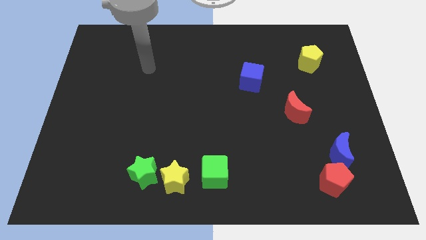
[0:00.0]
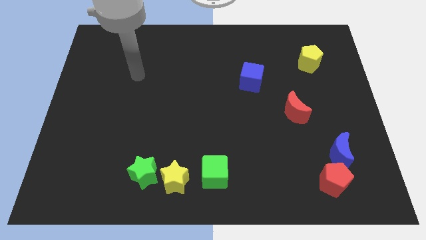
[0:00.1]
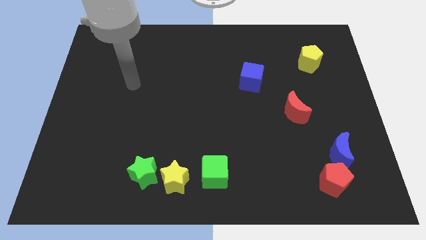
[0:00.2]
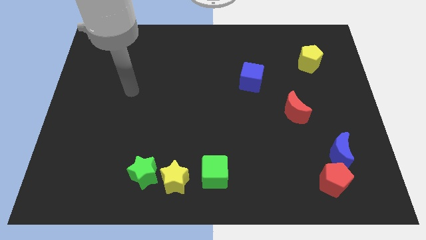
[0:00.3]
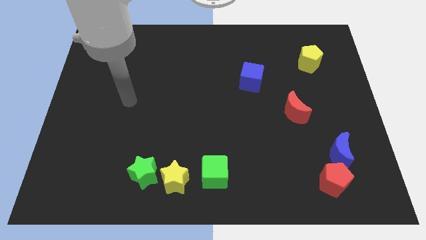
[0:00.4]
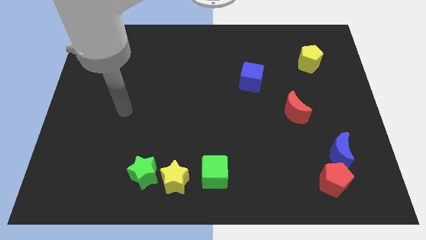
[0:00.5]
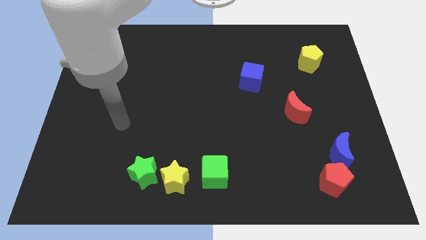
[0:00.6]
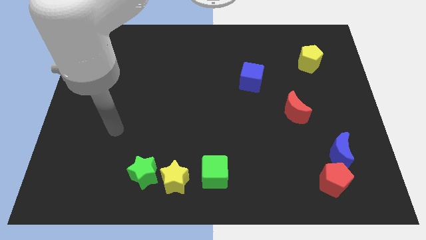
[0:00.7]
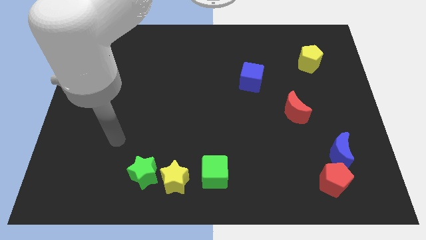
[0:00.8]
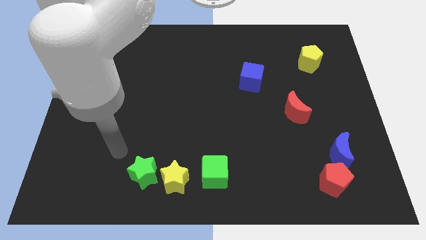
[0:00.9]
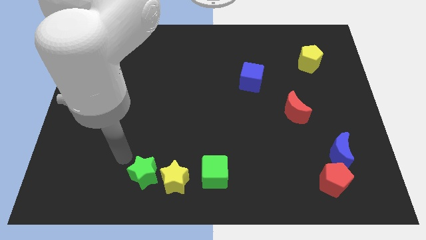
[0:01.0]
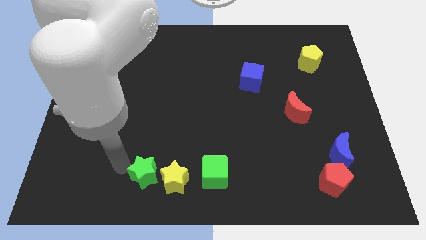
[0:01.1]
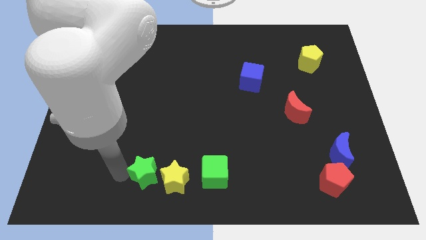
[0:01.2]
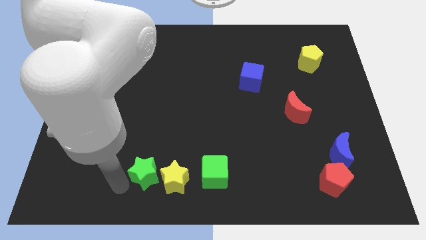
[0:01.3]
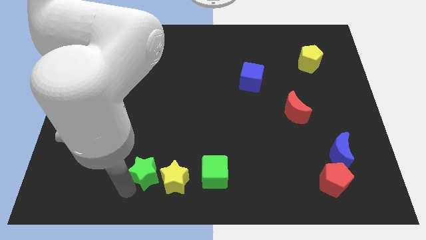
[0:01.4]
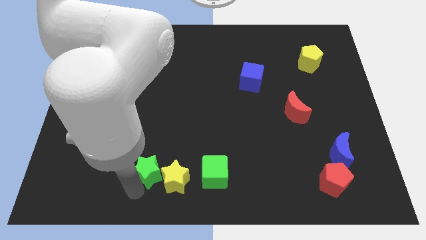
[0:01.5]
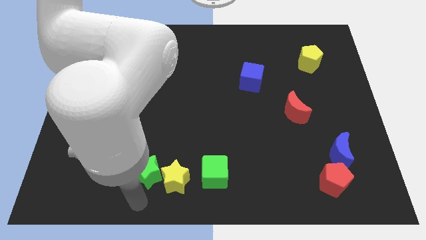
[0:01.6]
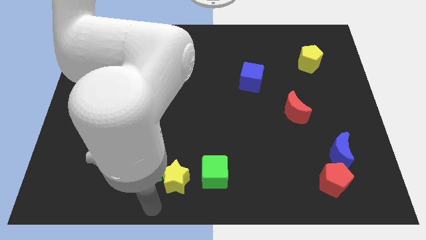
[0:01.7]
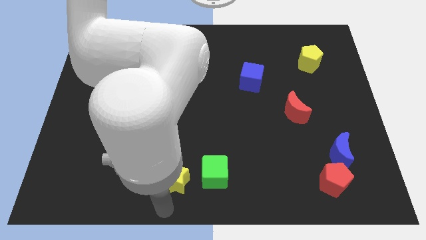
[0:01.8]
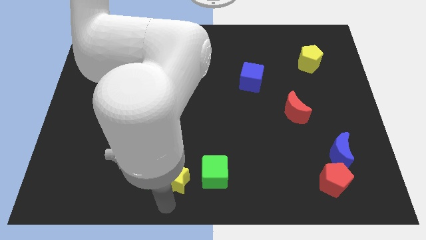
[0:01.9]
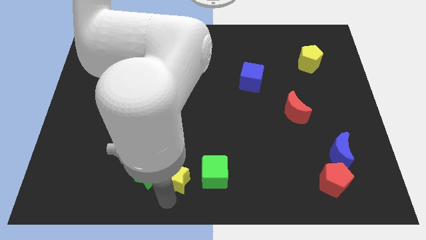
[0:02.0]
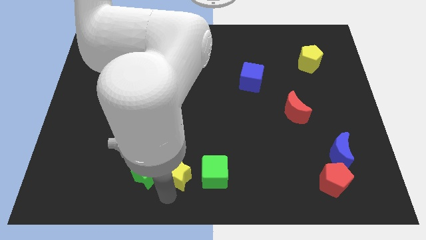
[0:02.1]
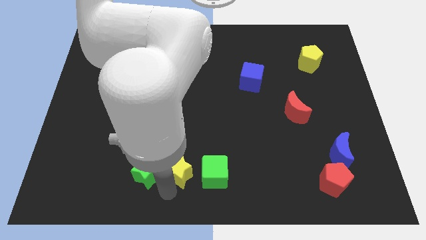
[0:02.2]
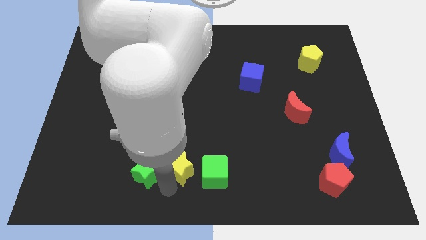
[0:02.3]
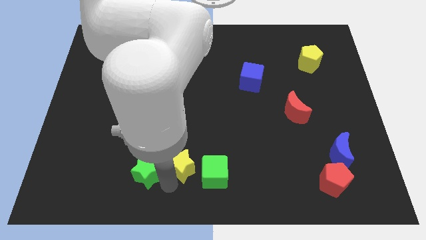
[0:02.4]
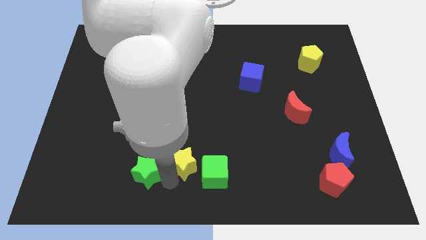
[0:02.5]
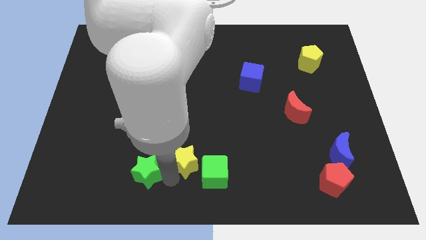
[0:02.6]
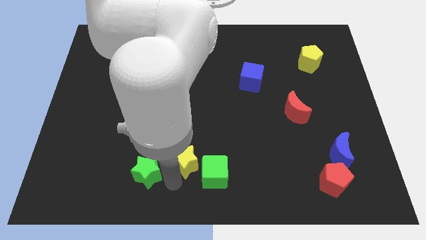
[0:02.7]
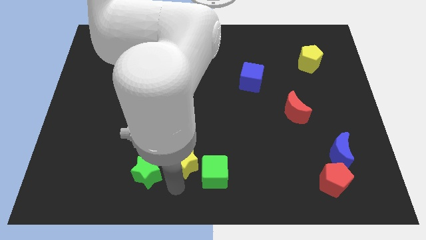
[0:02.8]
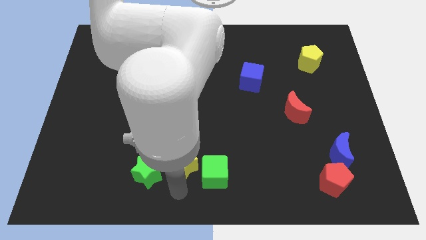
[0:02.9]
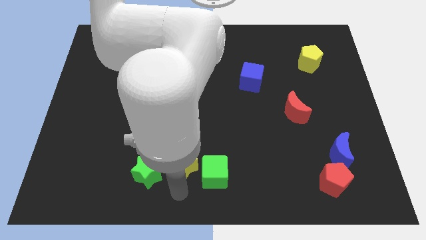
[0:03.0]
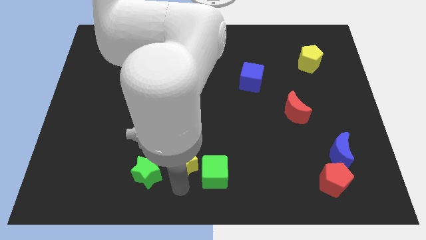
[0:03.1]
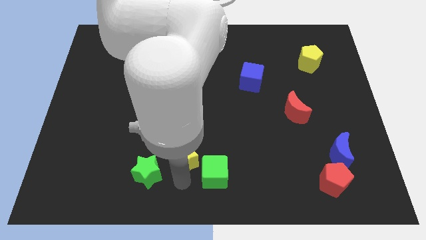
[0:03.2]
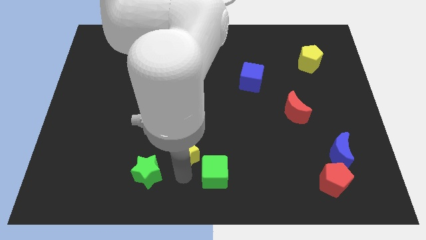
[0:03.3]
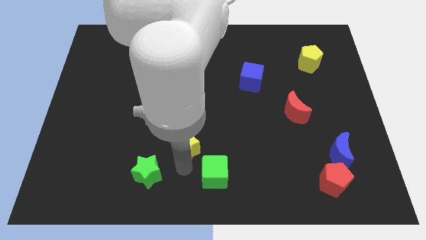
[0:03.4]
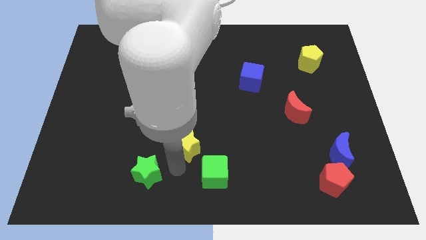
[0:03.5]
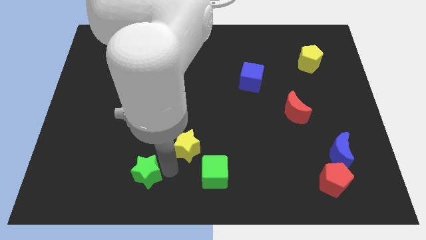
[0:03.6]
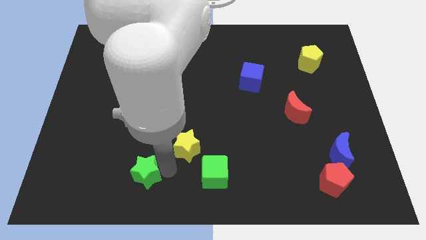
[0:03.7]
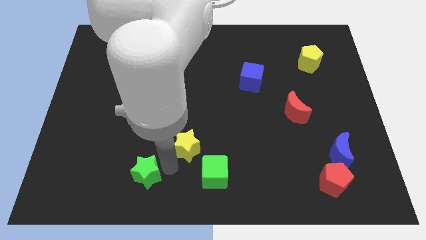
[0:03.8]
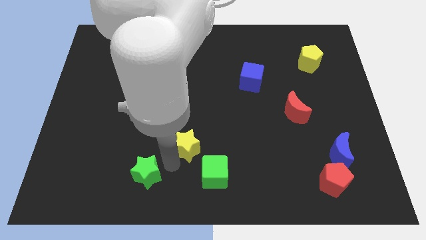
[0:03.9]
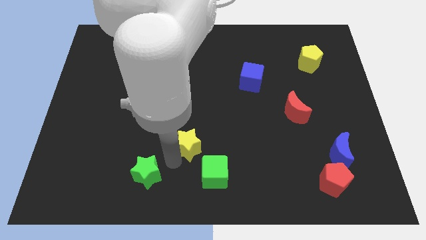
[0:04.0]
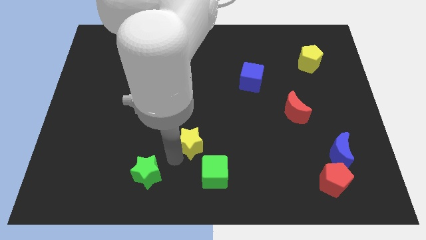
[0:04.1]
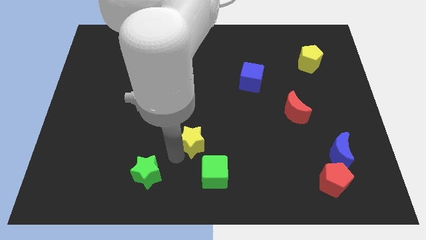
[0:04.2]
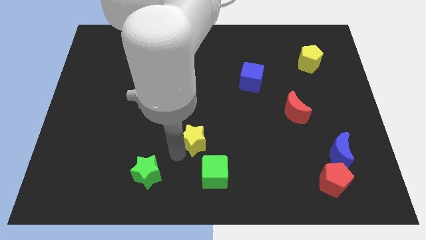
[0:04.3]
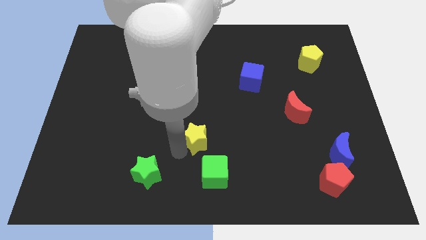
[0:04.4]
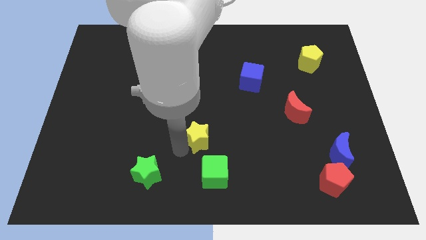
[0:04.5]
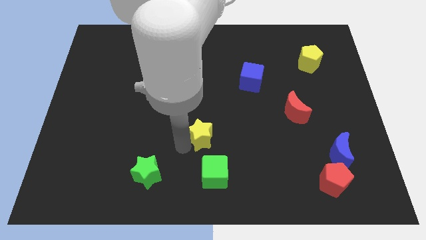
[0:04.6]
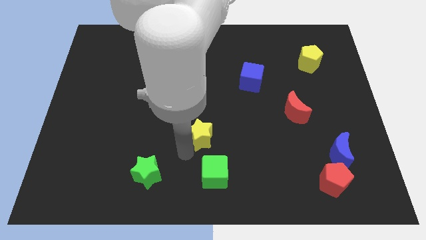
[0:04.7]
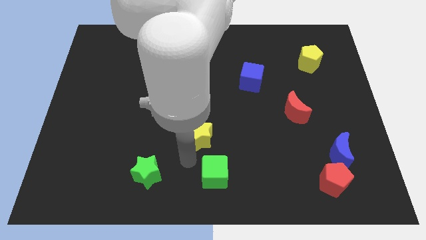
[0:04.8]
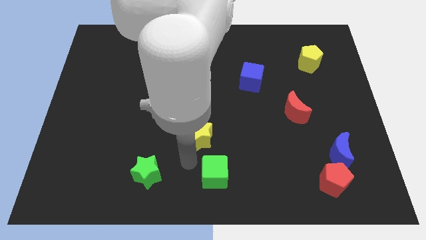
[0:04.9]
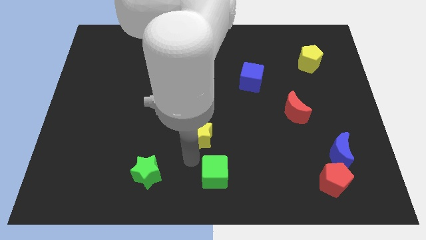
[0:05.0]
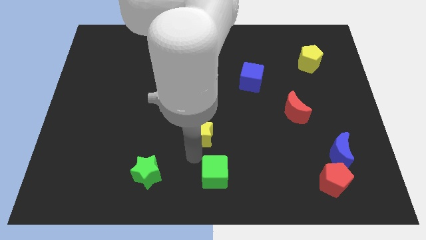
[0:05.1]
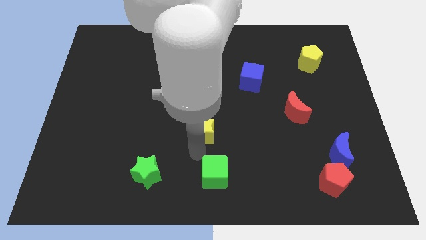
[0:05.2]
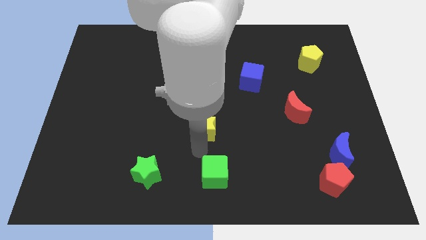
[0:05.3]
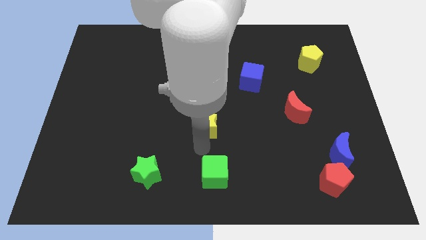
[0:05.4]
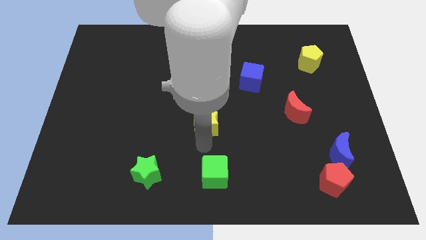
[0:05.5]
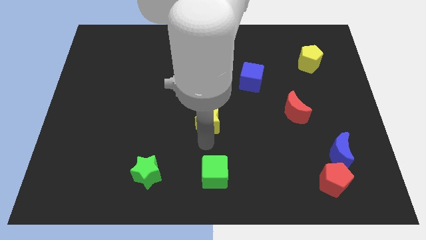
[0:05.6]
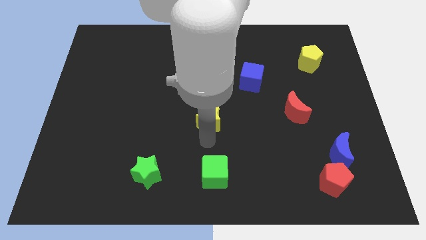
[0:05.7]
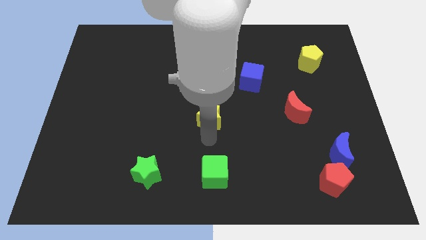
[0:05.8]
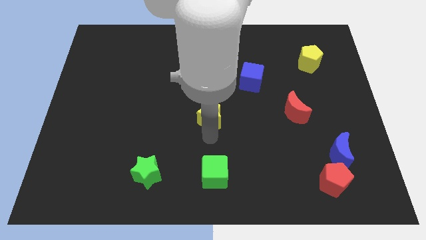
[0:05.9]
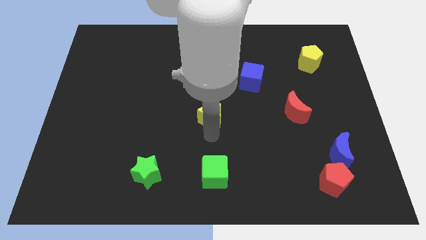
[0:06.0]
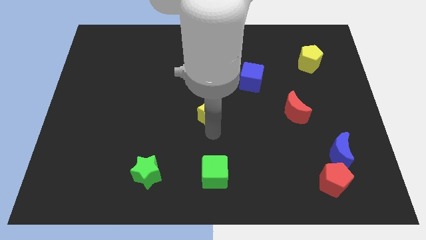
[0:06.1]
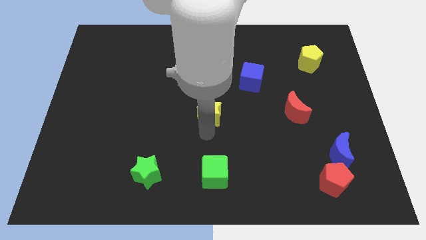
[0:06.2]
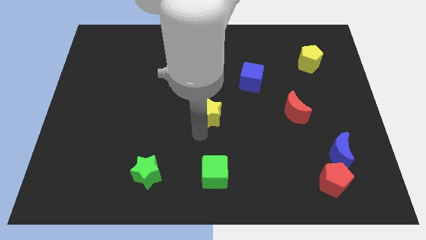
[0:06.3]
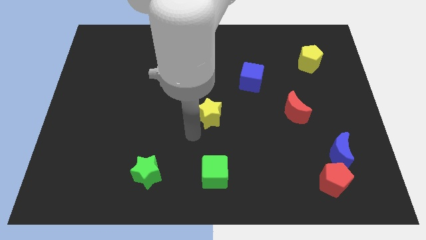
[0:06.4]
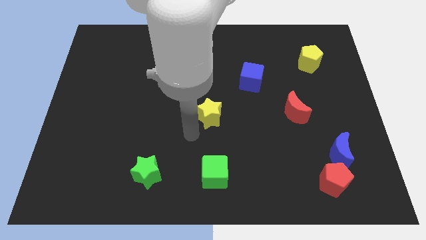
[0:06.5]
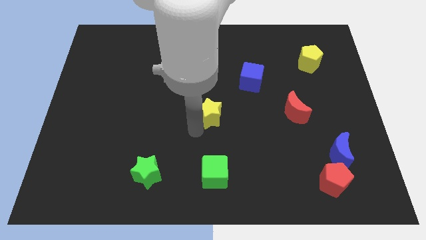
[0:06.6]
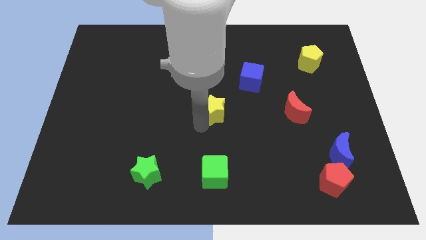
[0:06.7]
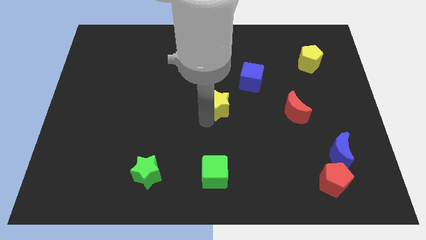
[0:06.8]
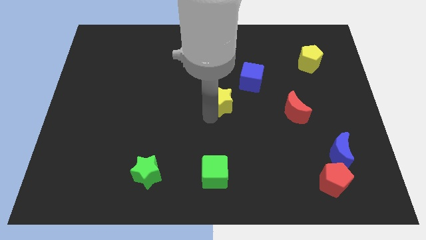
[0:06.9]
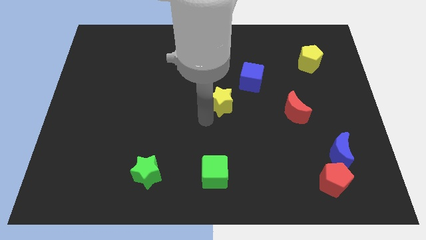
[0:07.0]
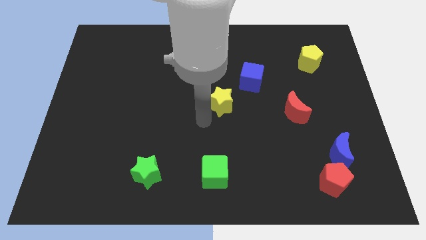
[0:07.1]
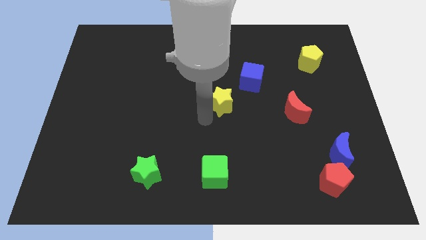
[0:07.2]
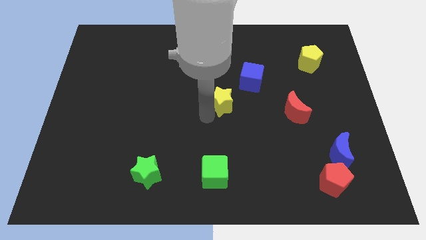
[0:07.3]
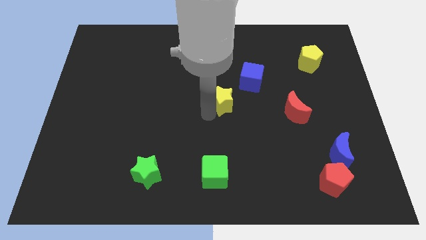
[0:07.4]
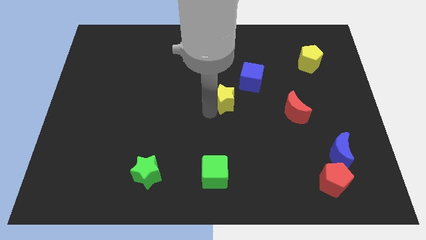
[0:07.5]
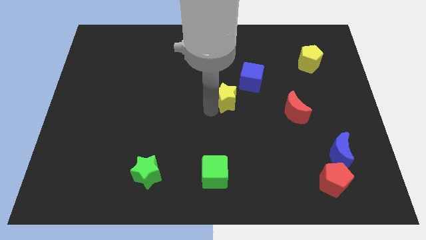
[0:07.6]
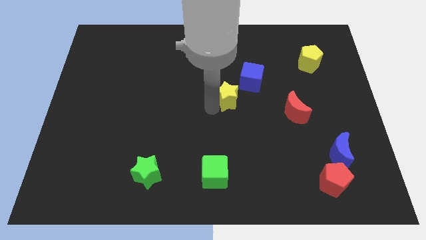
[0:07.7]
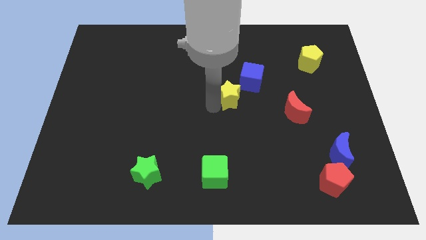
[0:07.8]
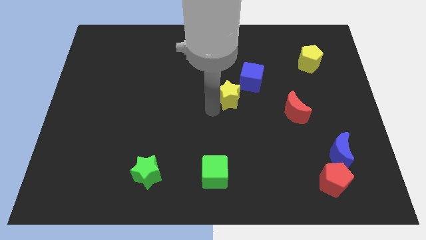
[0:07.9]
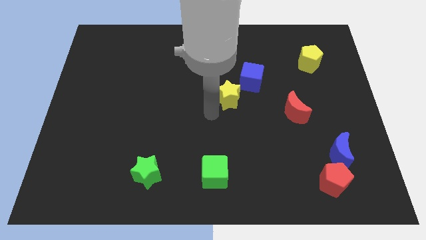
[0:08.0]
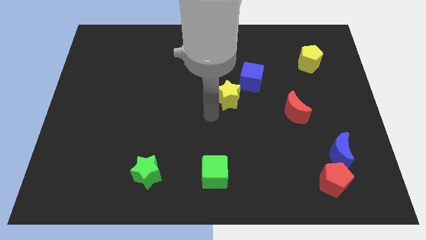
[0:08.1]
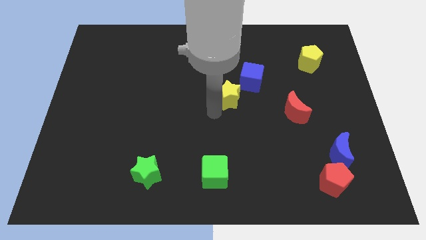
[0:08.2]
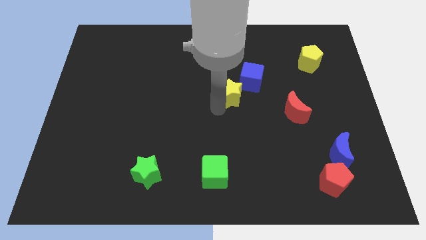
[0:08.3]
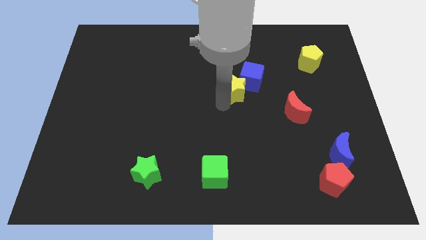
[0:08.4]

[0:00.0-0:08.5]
move the yellow star towards the blue cube
